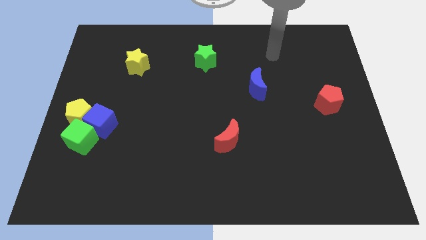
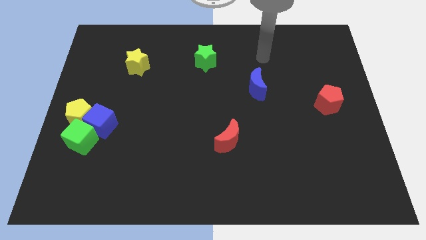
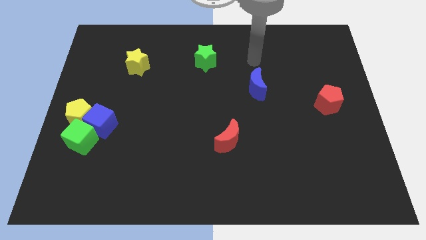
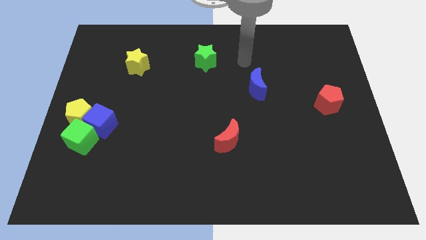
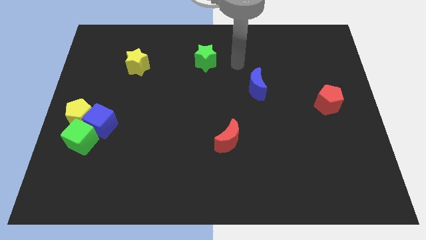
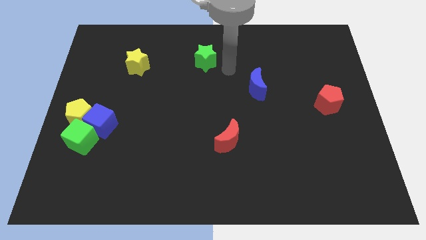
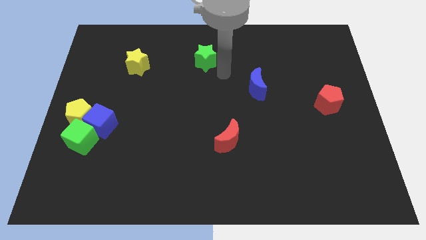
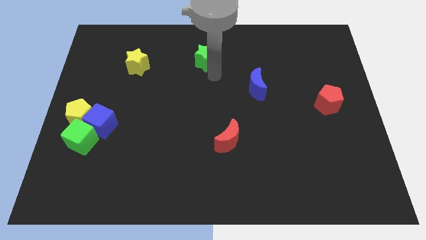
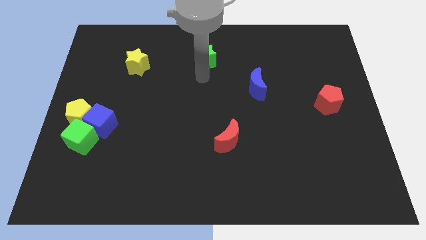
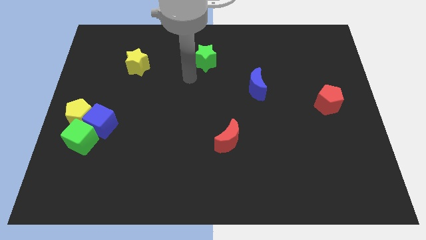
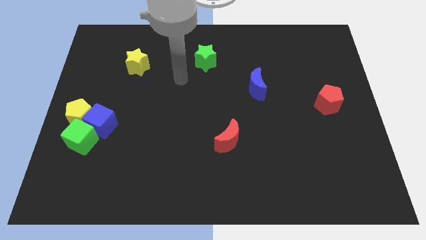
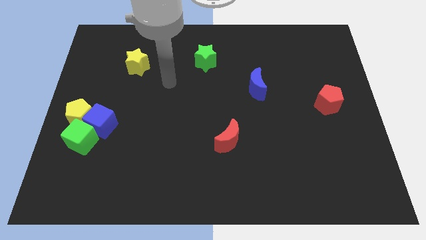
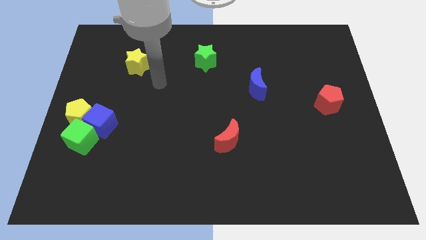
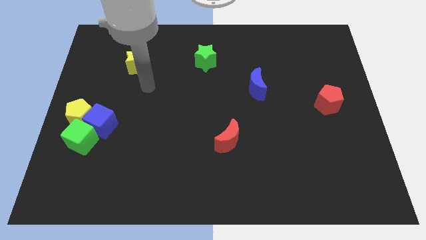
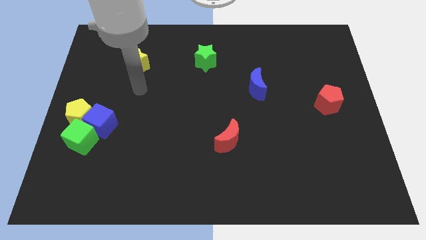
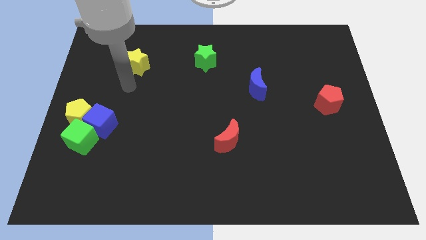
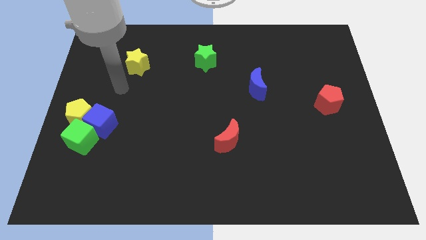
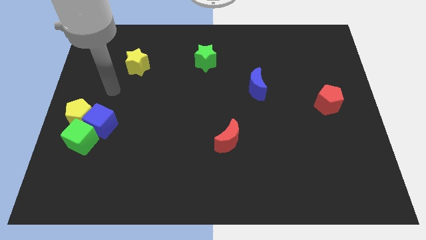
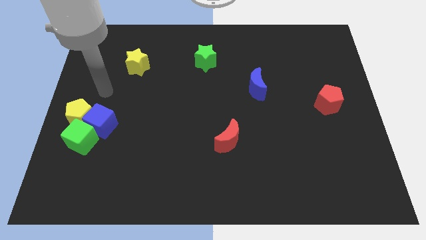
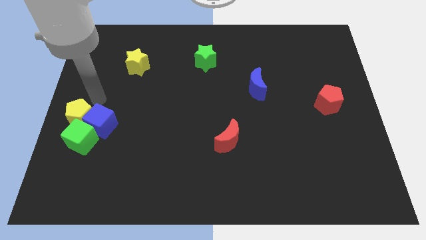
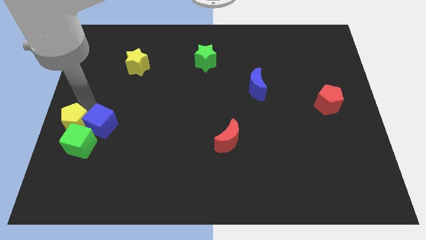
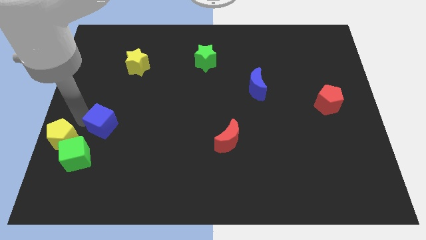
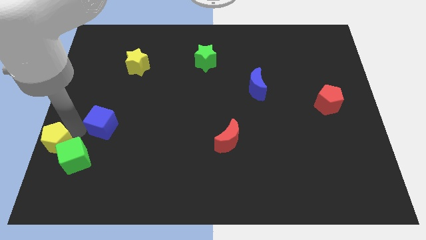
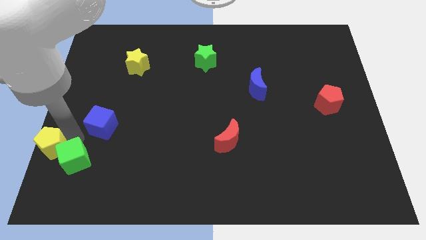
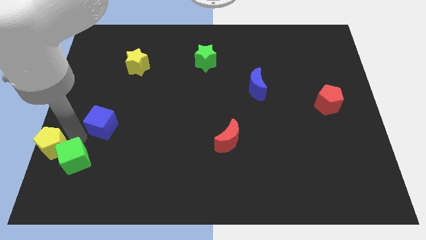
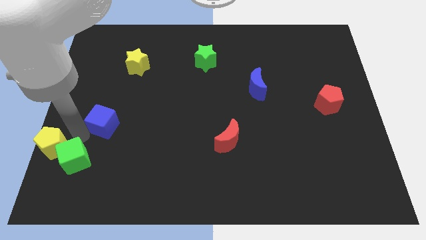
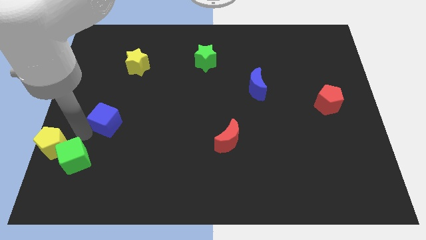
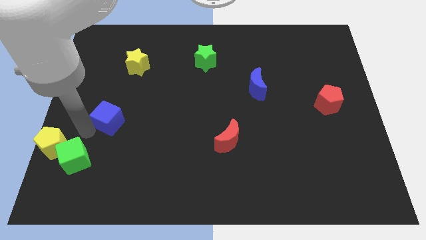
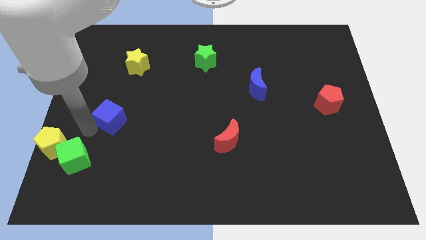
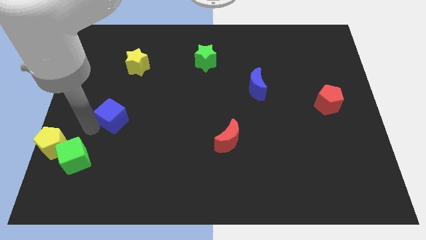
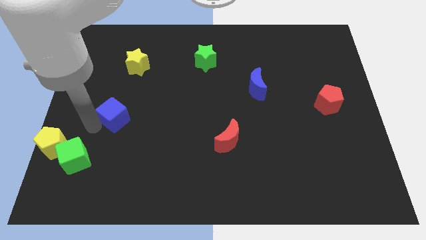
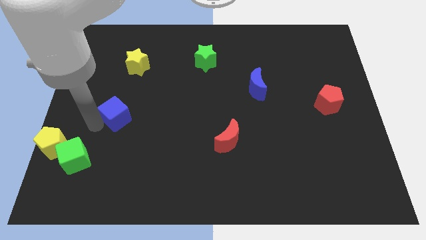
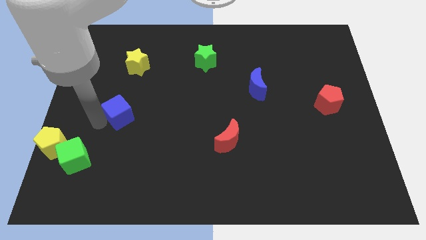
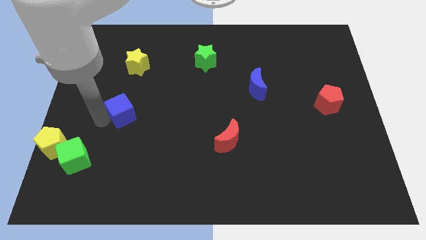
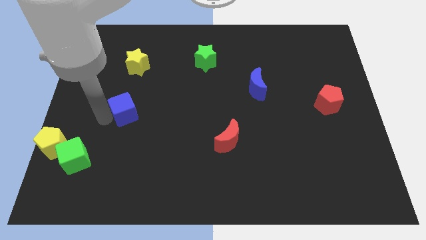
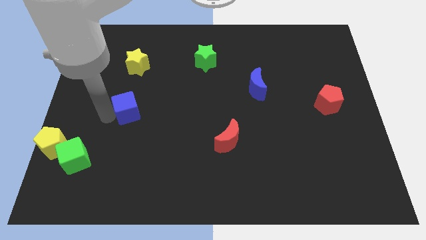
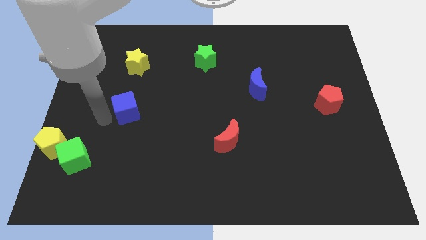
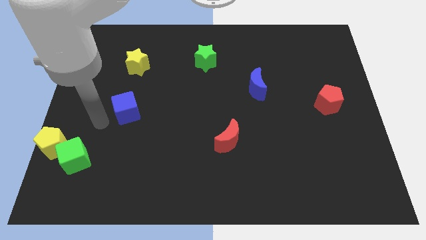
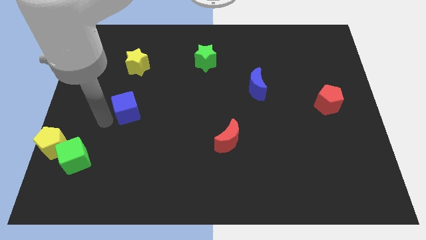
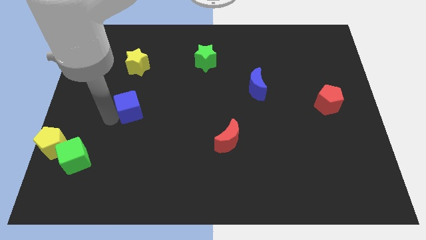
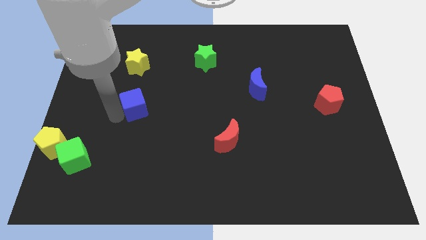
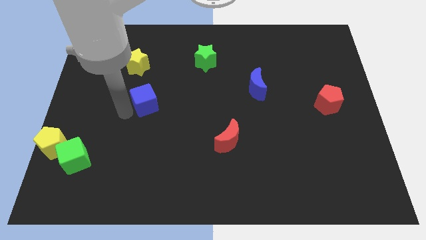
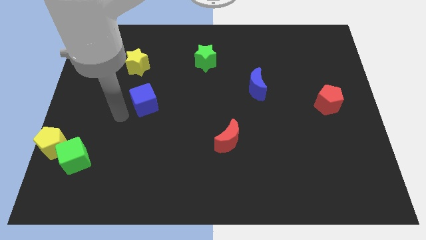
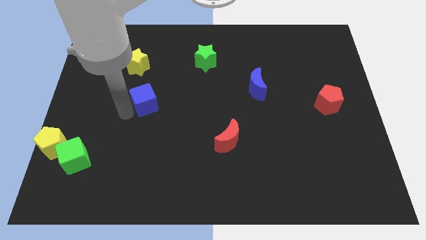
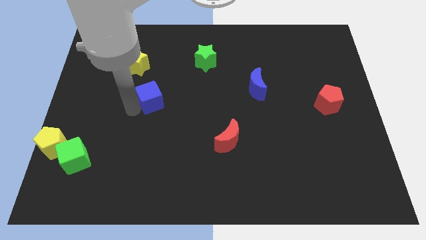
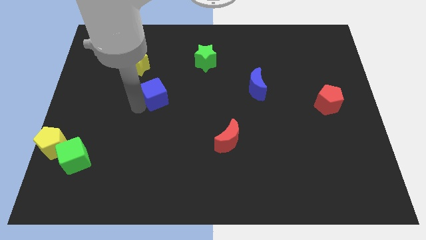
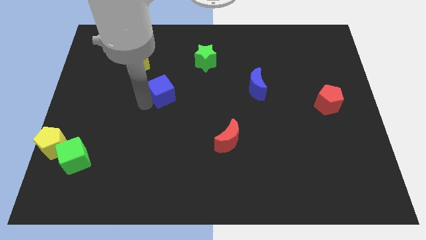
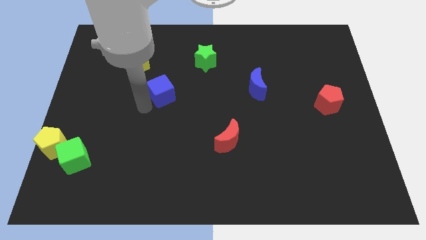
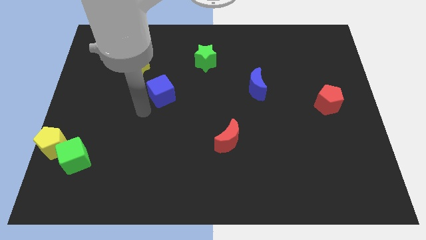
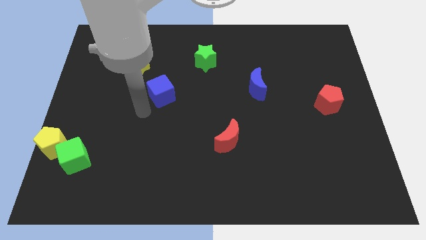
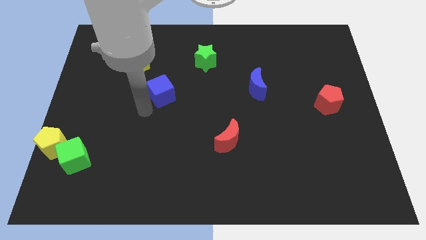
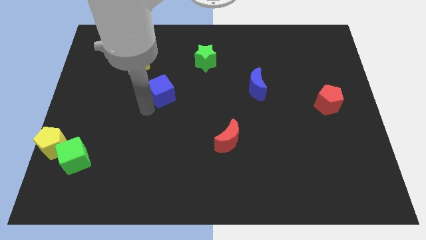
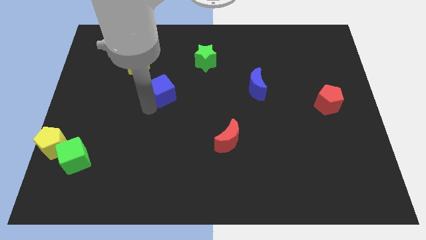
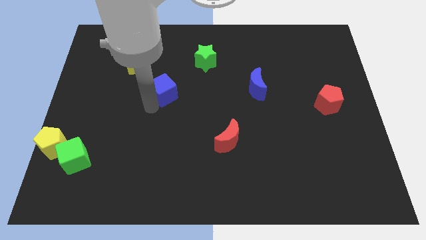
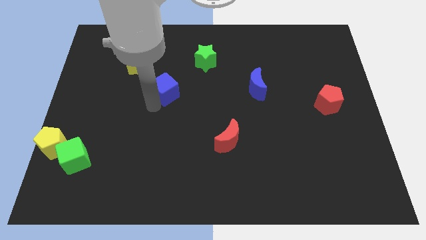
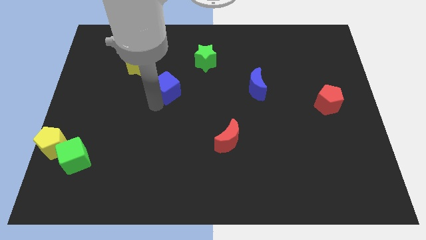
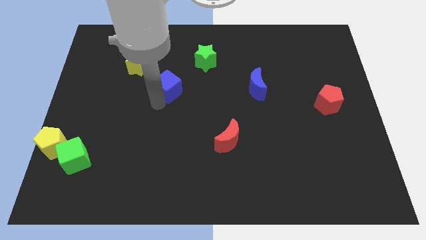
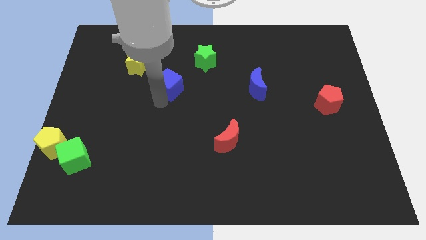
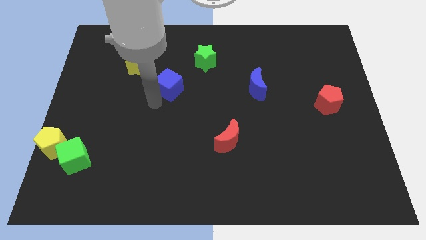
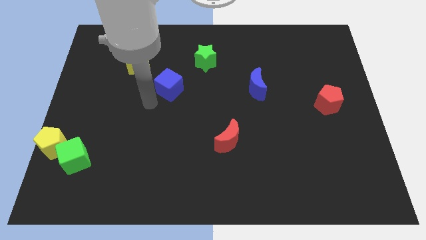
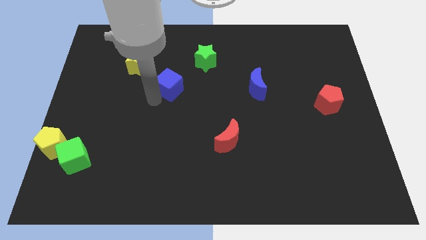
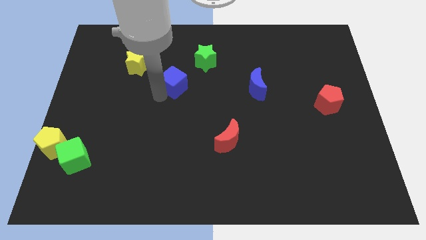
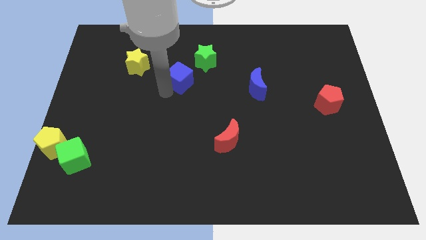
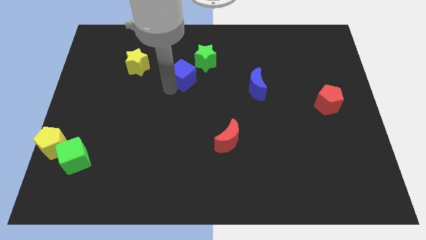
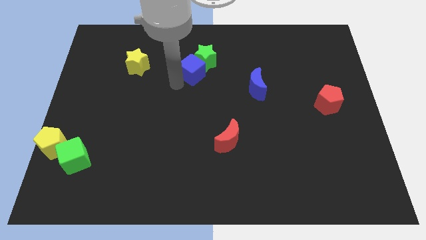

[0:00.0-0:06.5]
move the blue cube next to the green star

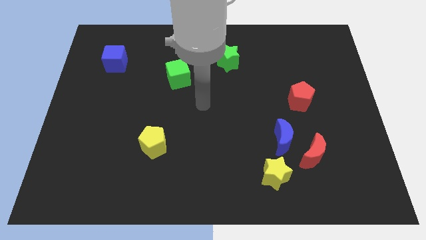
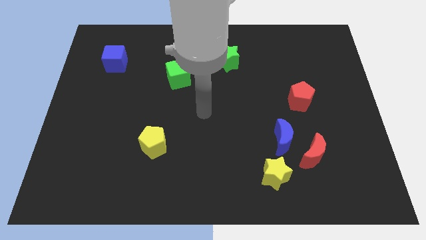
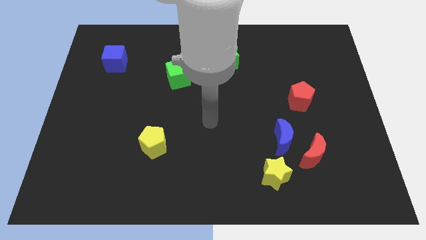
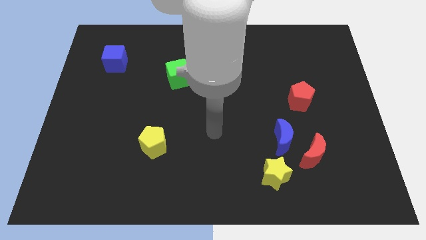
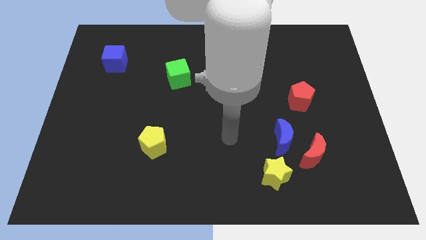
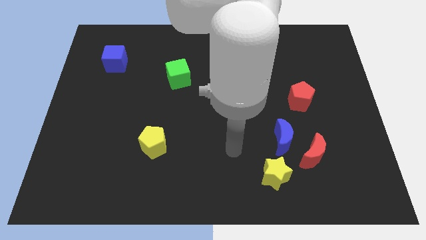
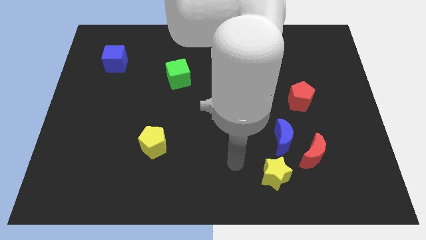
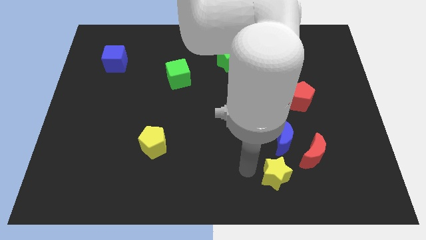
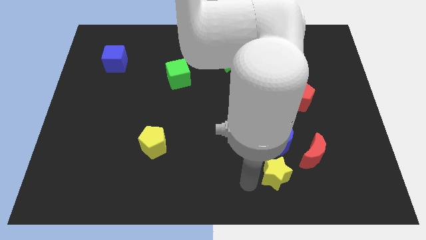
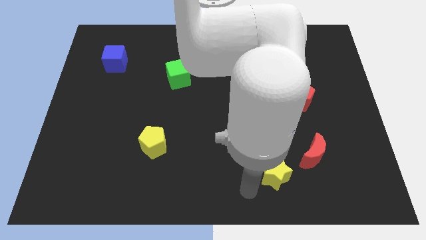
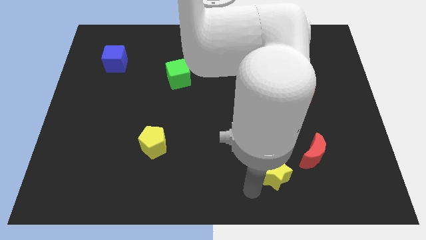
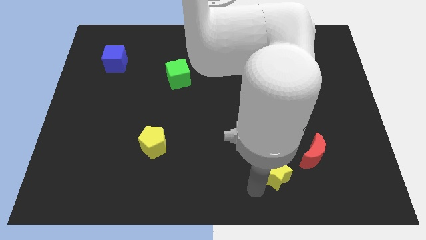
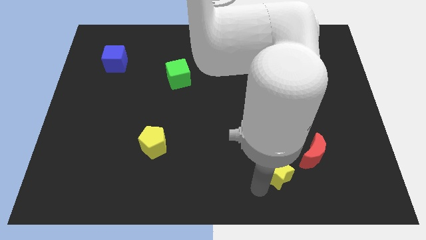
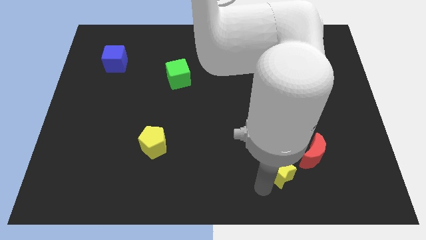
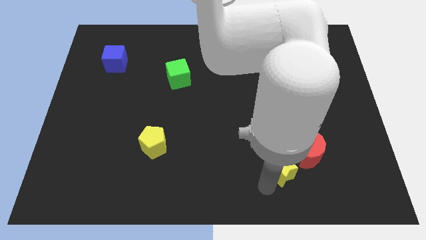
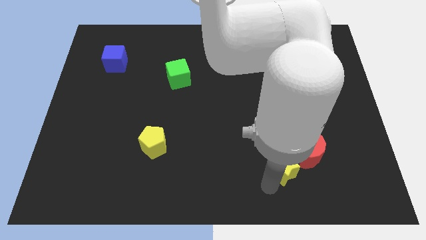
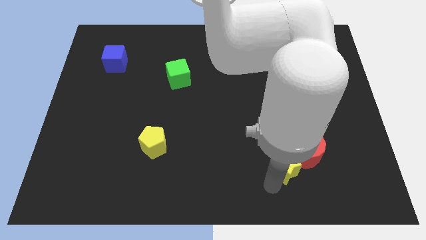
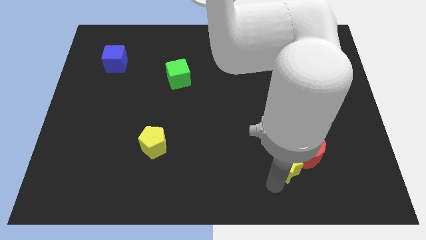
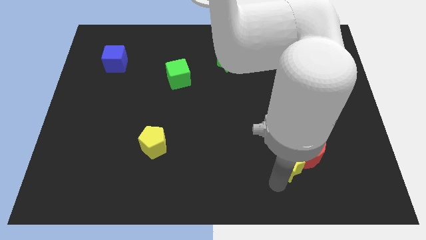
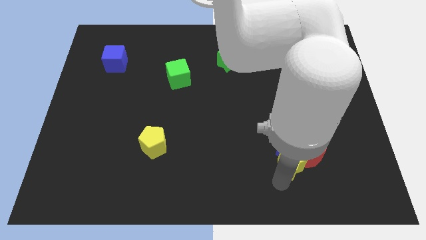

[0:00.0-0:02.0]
move the yellow star towards the red moon

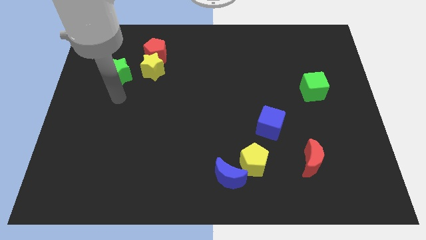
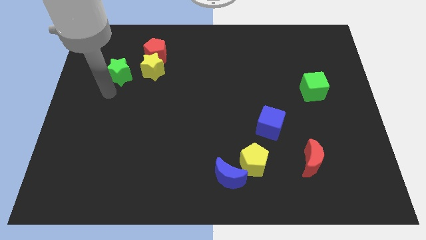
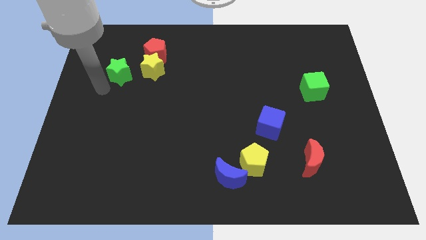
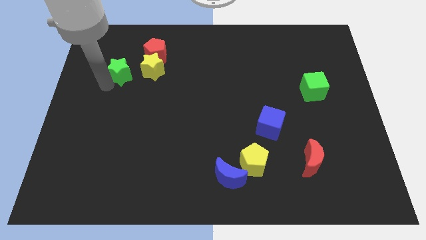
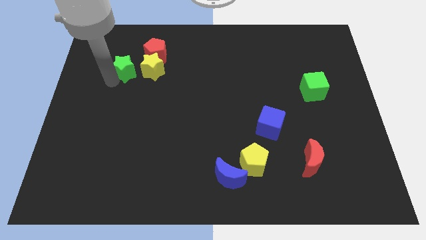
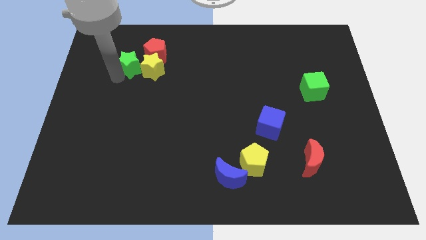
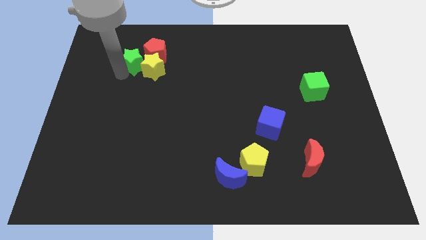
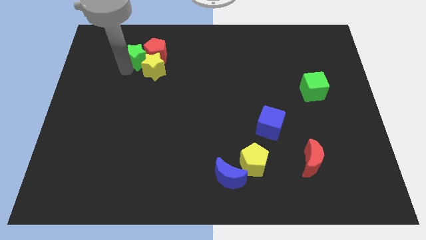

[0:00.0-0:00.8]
move the green star close to the red pentagon
